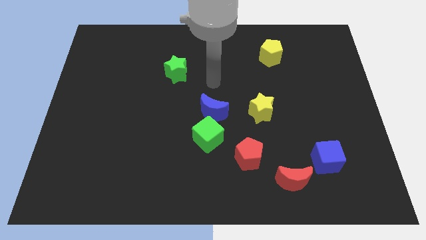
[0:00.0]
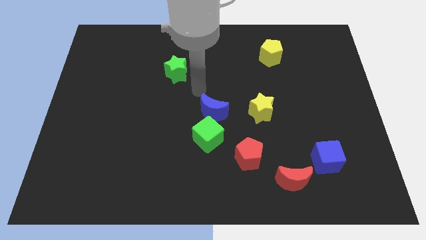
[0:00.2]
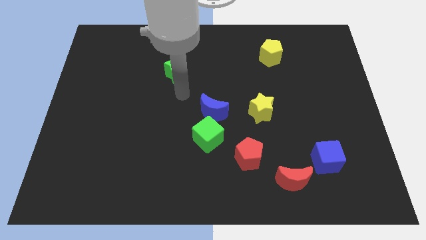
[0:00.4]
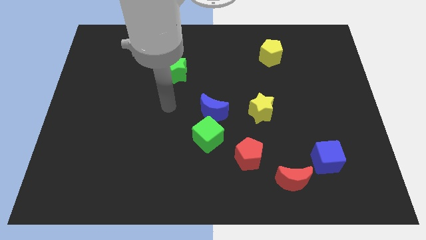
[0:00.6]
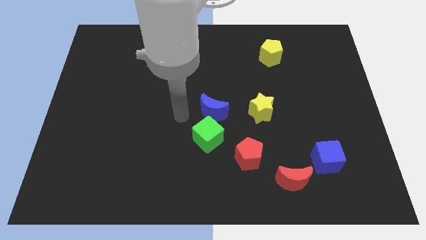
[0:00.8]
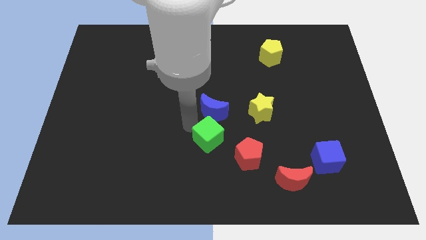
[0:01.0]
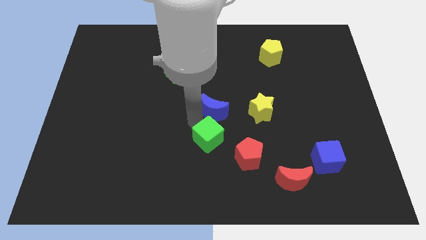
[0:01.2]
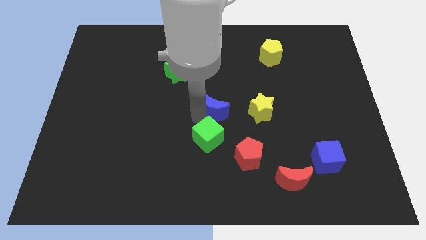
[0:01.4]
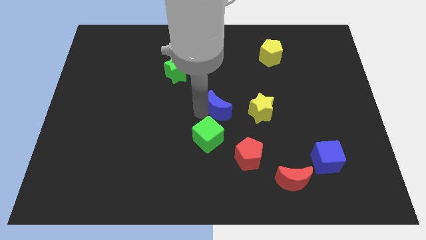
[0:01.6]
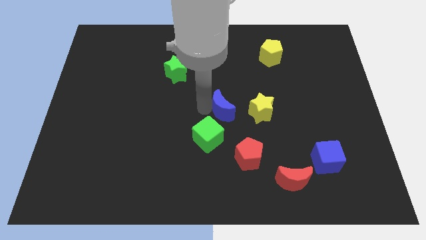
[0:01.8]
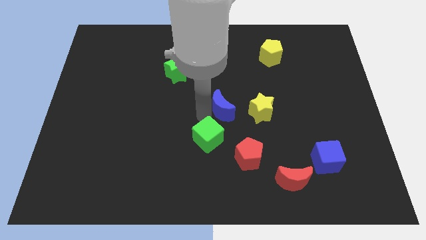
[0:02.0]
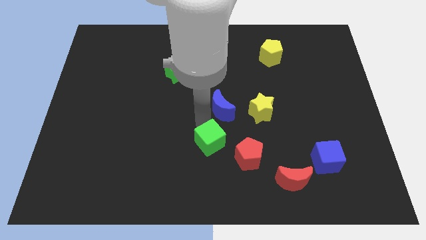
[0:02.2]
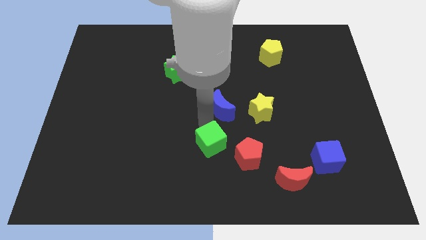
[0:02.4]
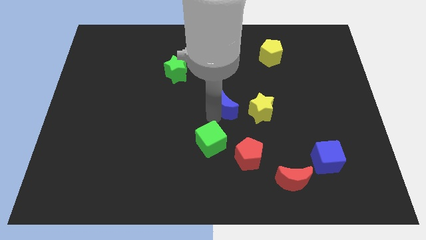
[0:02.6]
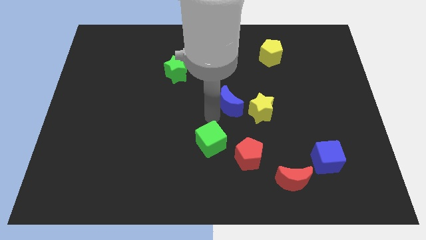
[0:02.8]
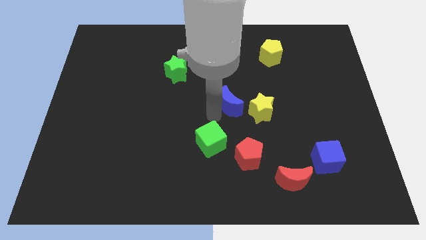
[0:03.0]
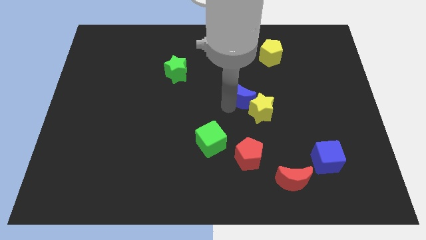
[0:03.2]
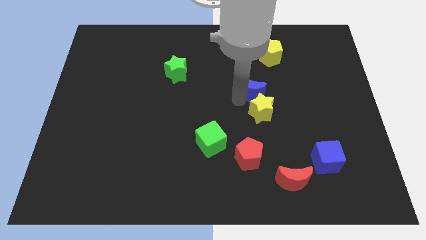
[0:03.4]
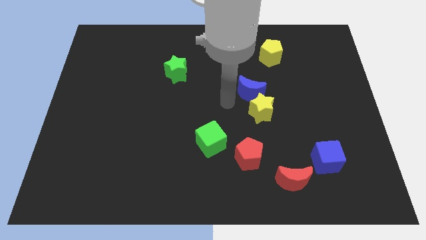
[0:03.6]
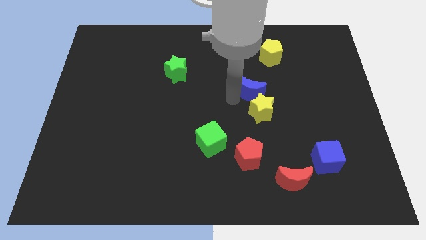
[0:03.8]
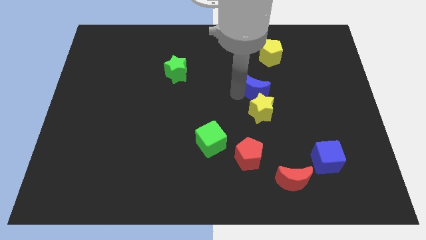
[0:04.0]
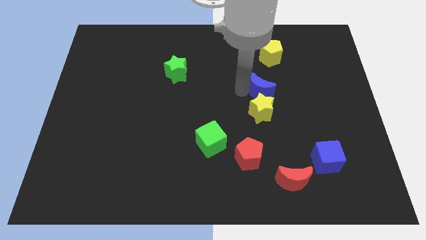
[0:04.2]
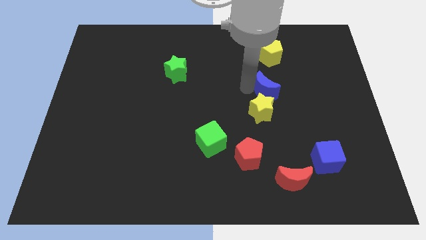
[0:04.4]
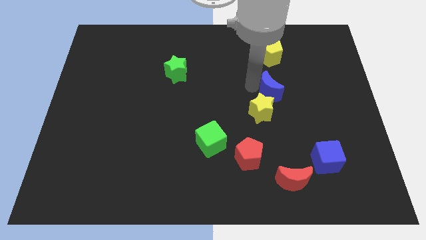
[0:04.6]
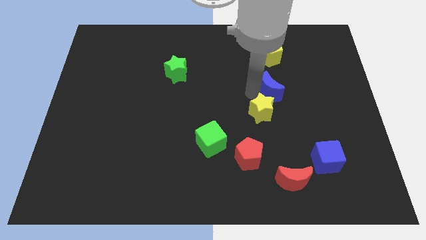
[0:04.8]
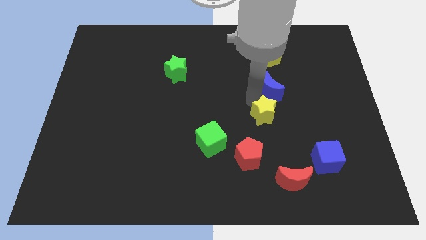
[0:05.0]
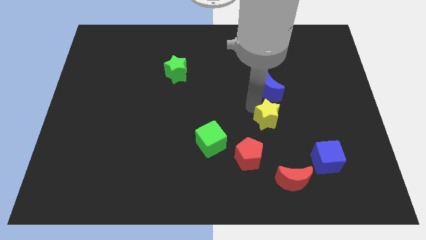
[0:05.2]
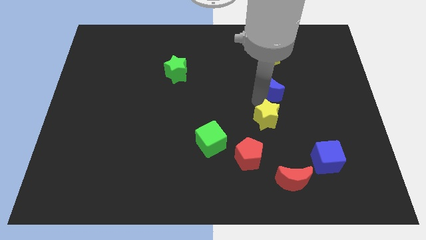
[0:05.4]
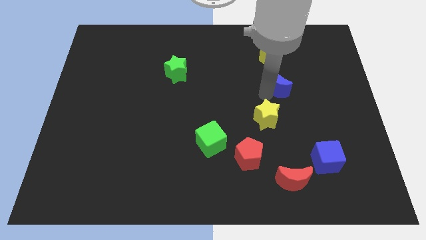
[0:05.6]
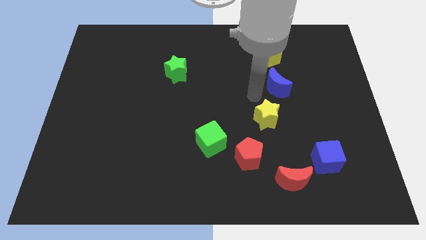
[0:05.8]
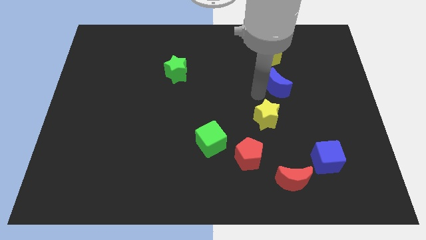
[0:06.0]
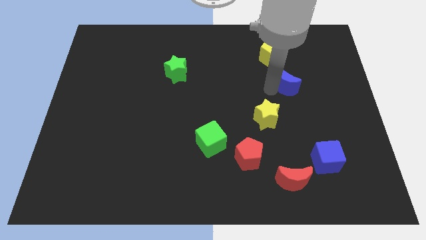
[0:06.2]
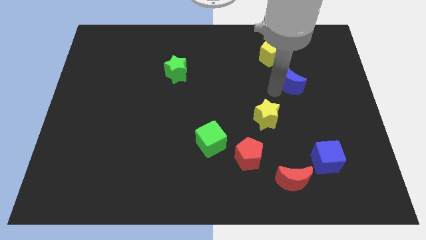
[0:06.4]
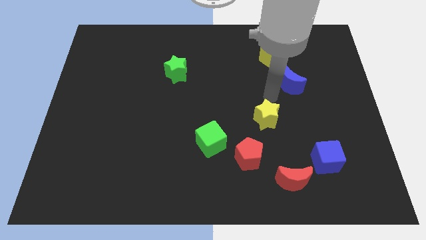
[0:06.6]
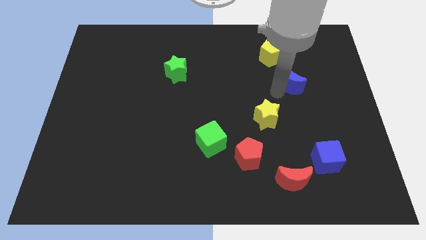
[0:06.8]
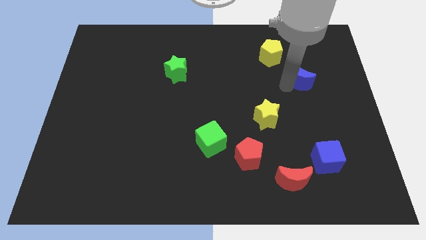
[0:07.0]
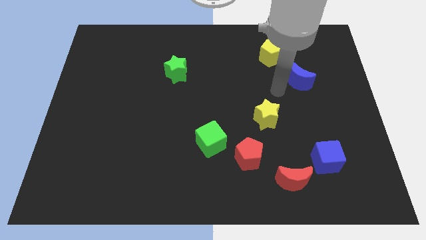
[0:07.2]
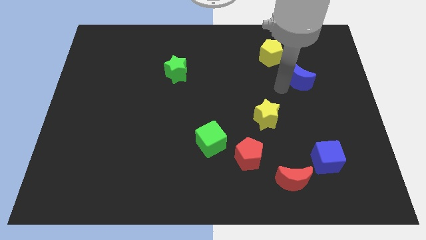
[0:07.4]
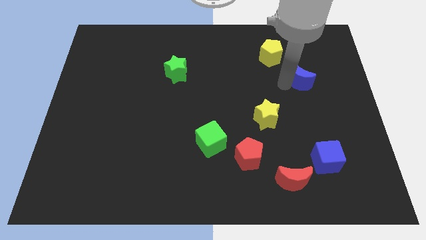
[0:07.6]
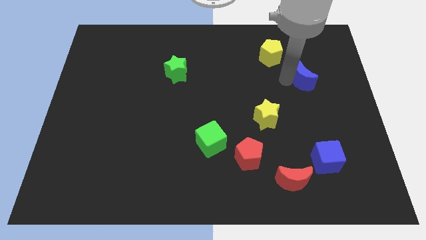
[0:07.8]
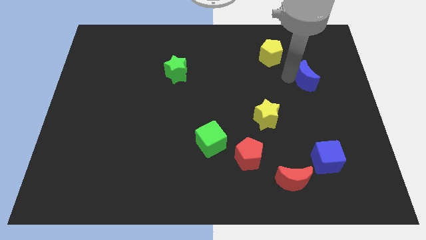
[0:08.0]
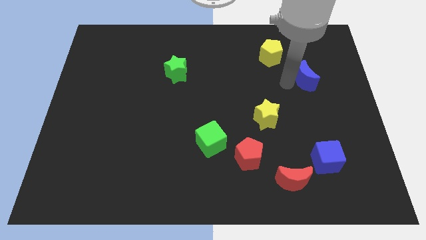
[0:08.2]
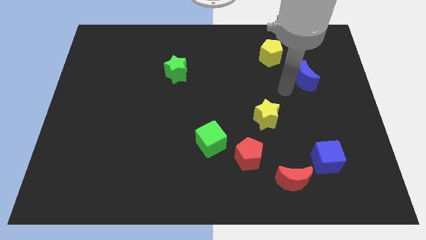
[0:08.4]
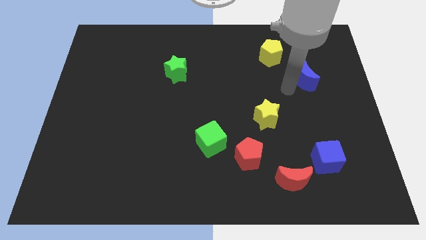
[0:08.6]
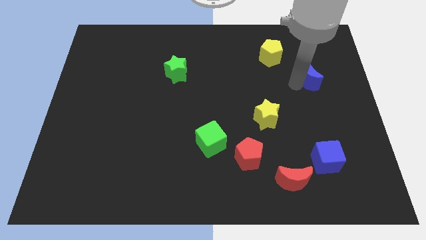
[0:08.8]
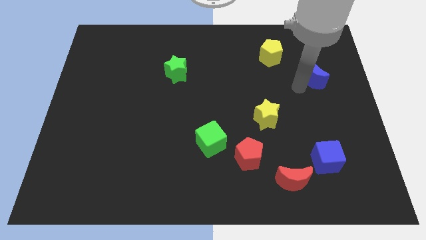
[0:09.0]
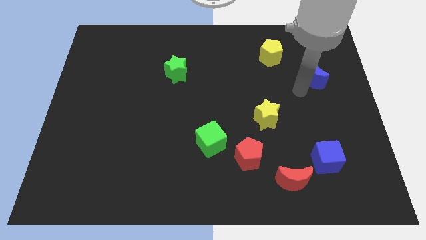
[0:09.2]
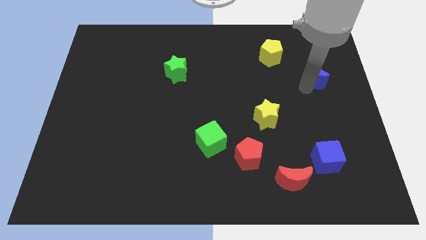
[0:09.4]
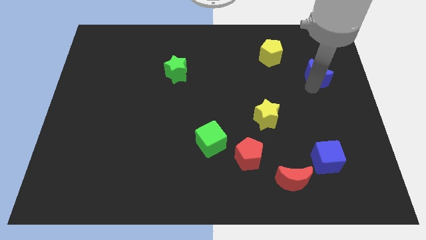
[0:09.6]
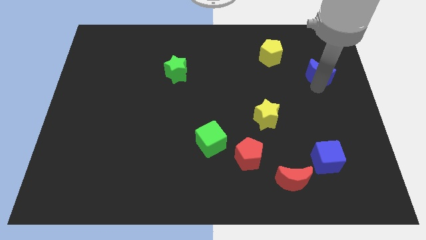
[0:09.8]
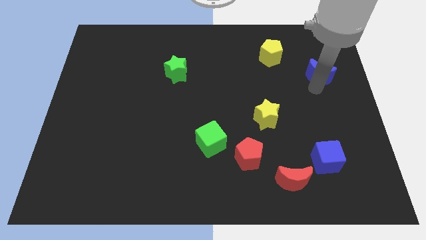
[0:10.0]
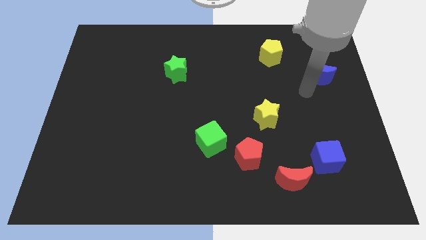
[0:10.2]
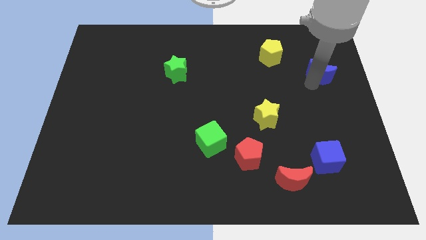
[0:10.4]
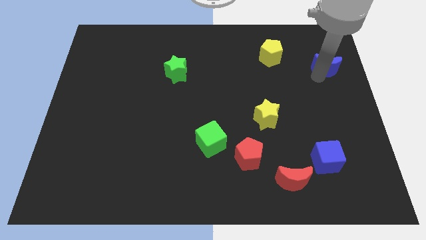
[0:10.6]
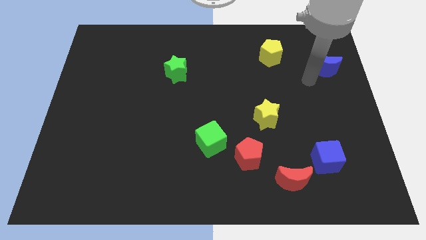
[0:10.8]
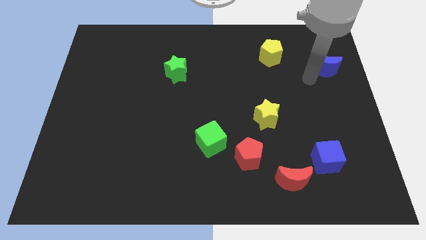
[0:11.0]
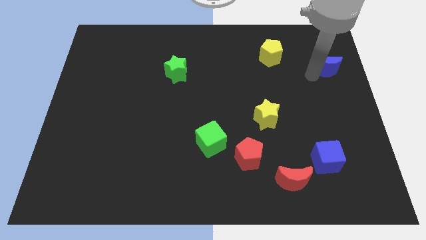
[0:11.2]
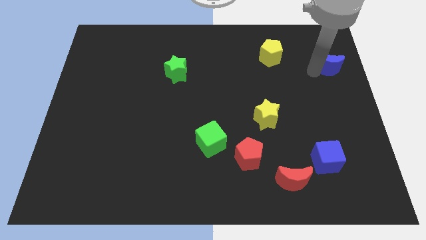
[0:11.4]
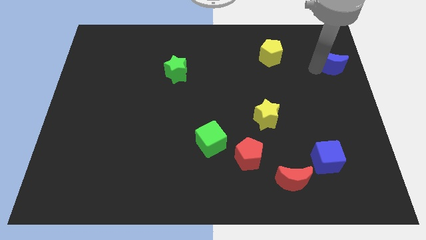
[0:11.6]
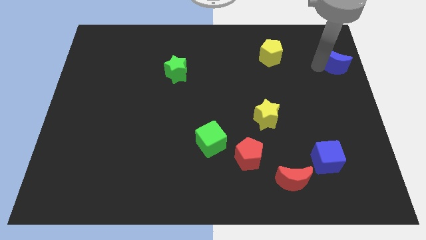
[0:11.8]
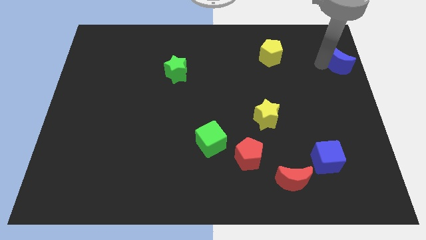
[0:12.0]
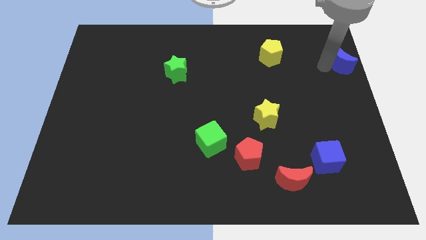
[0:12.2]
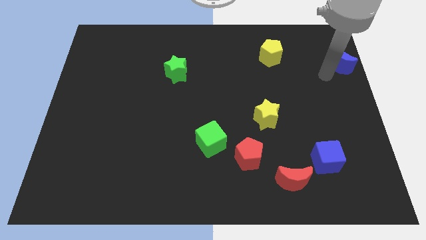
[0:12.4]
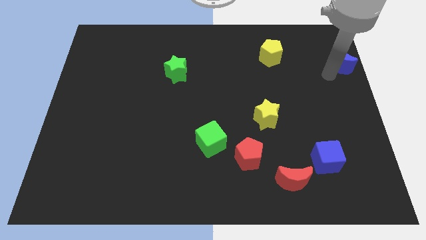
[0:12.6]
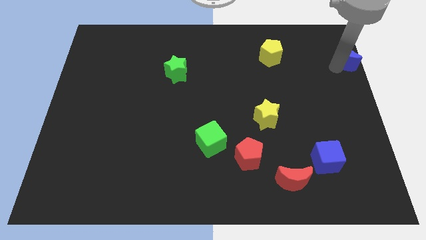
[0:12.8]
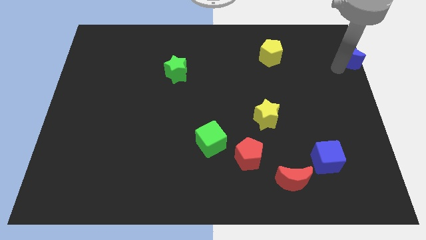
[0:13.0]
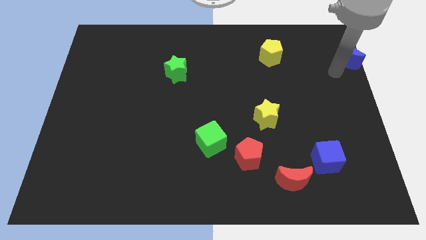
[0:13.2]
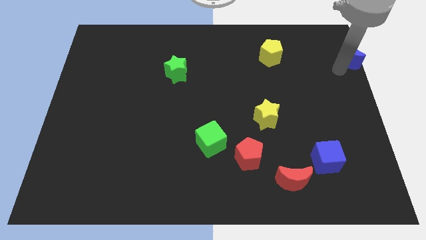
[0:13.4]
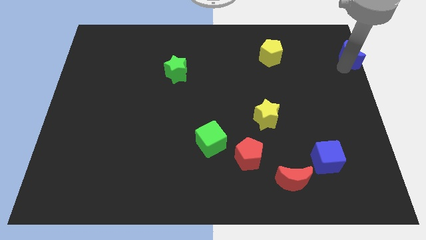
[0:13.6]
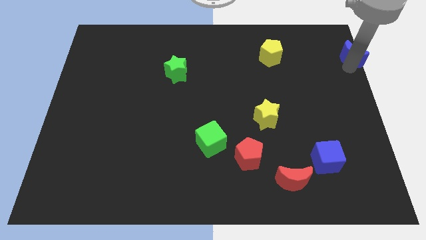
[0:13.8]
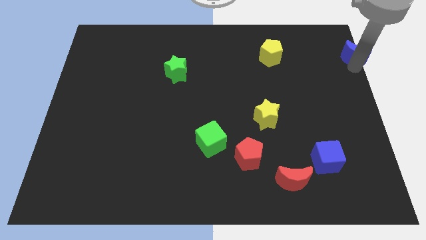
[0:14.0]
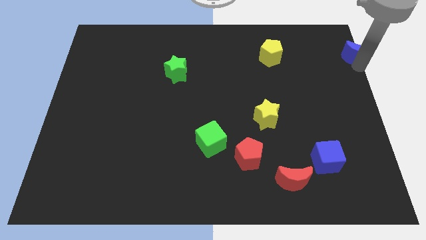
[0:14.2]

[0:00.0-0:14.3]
move the blue moon to the top right corner
